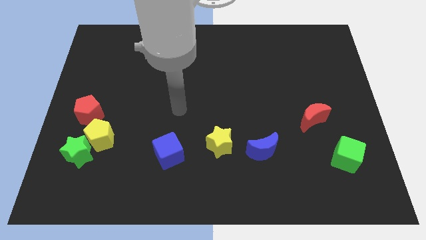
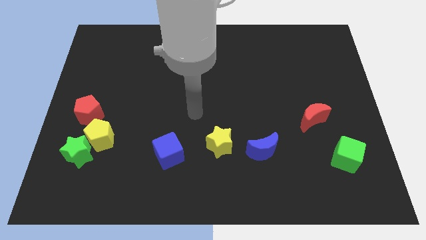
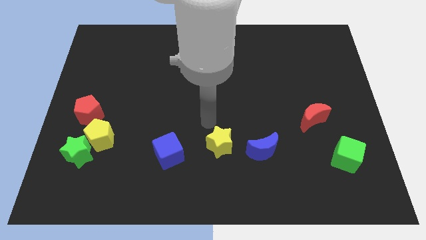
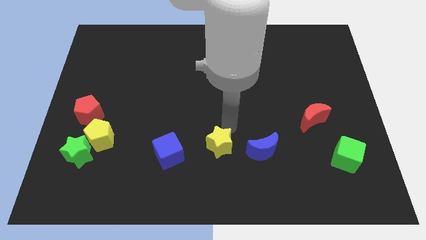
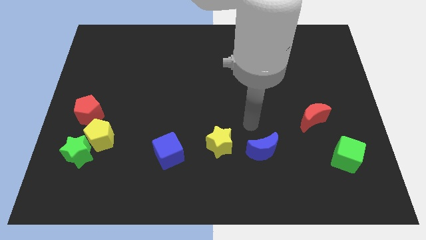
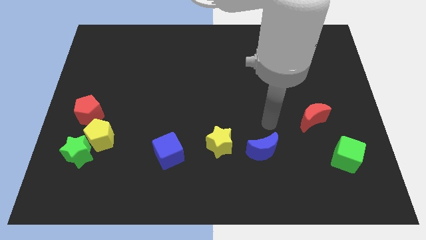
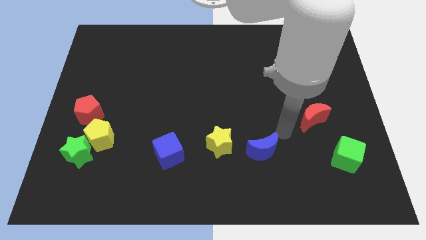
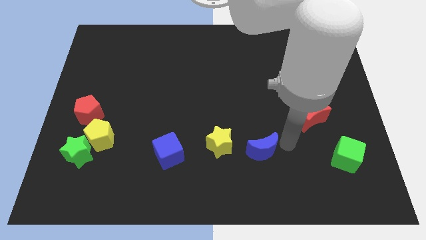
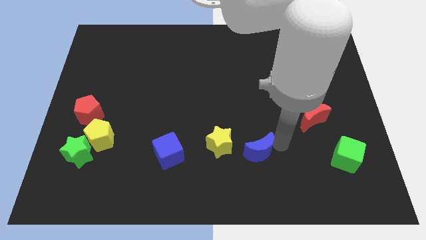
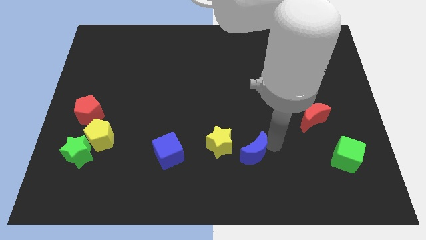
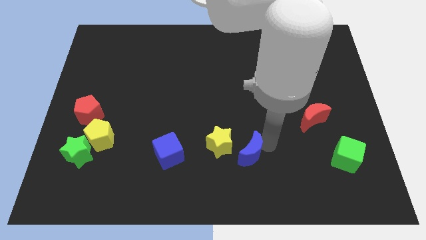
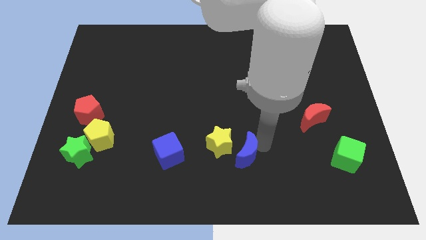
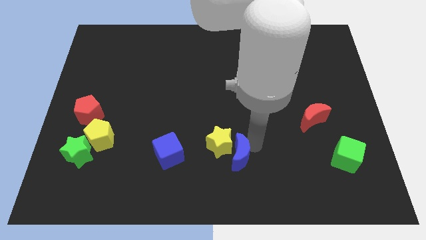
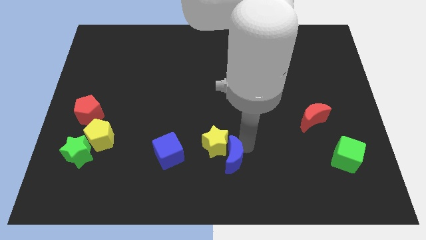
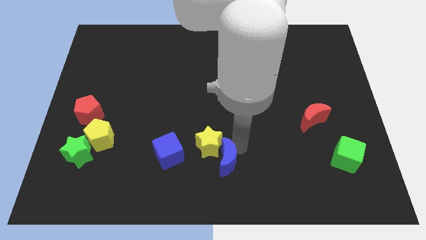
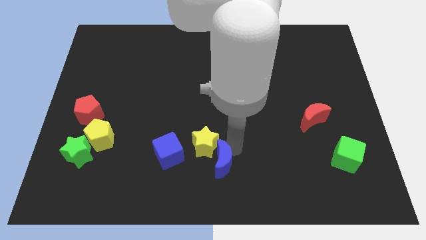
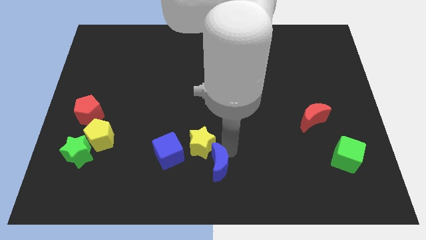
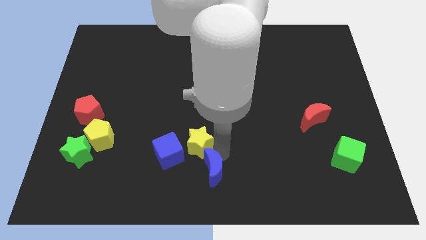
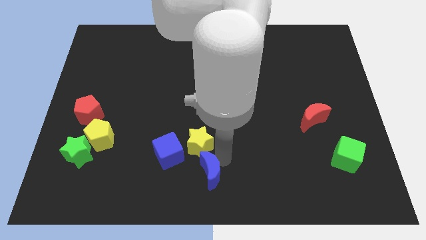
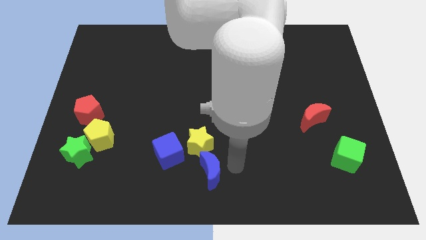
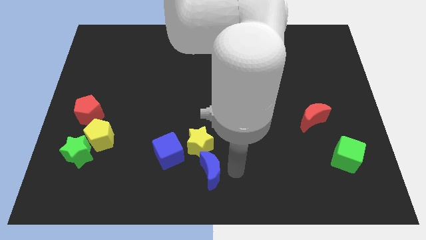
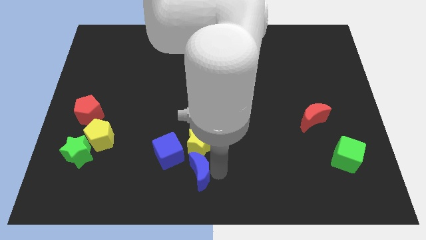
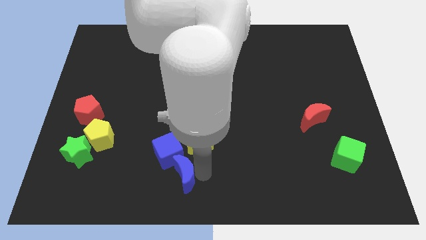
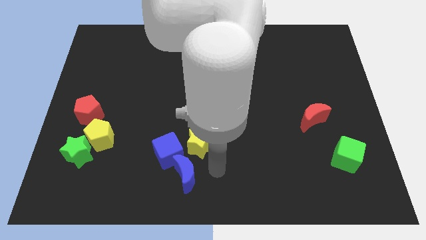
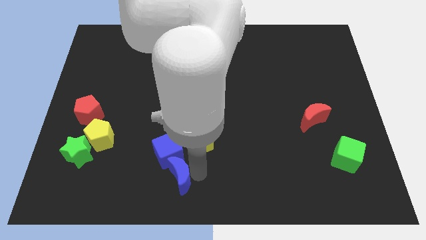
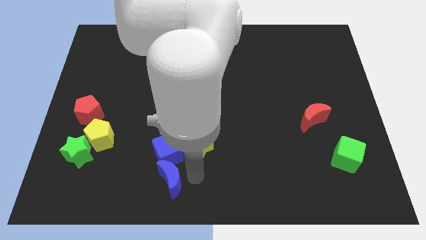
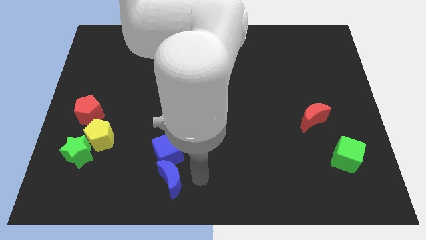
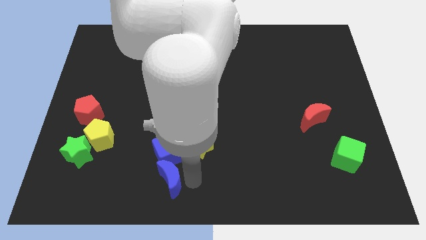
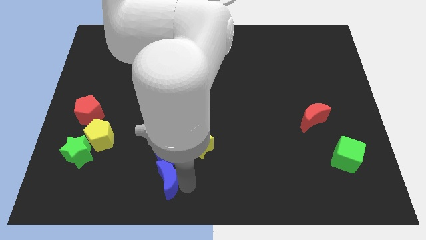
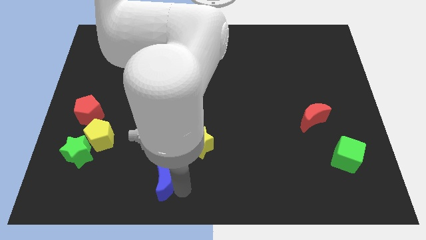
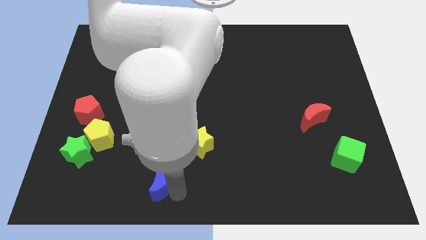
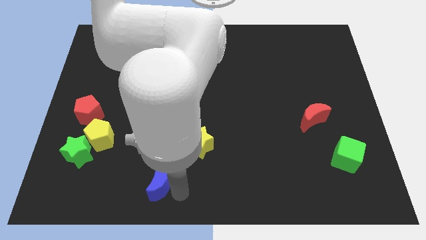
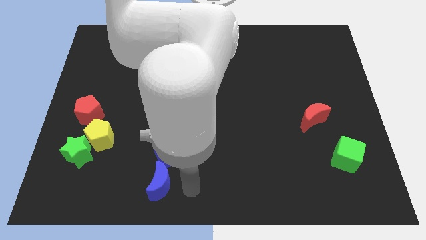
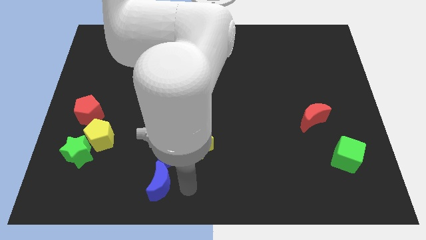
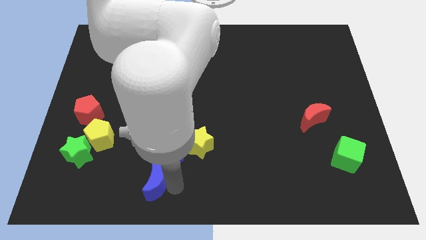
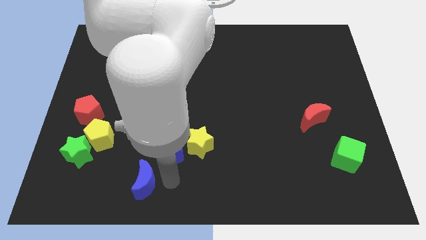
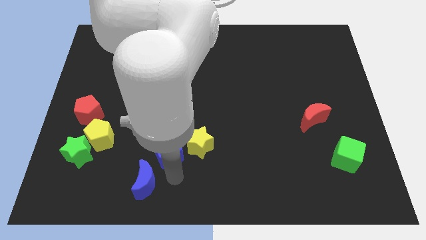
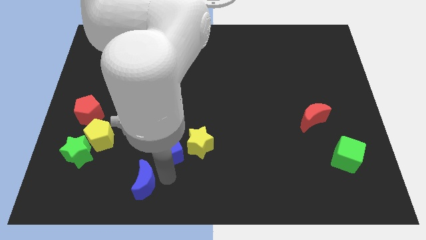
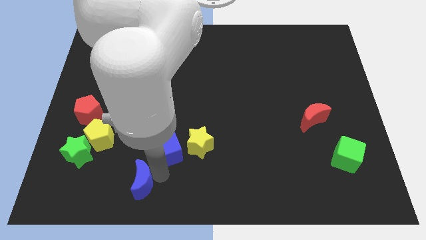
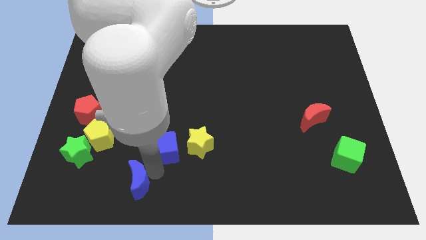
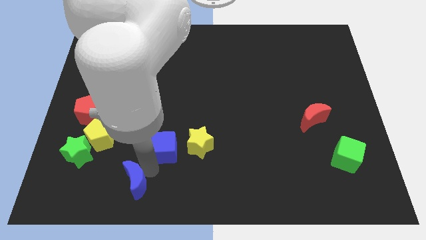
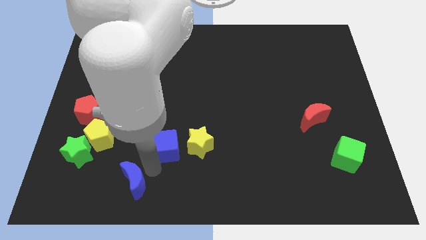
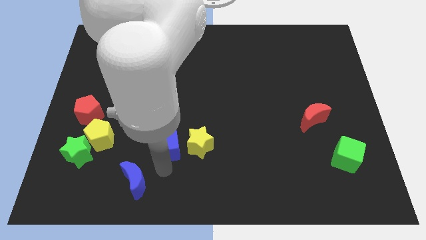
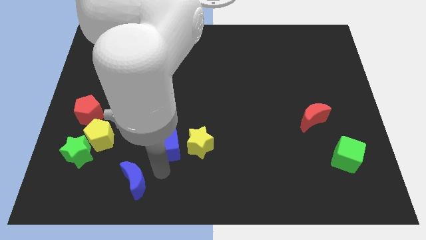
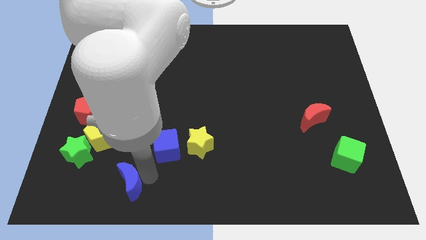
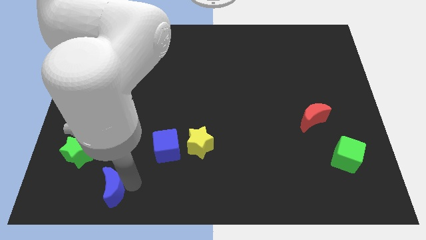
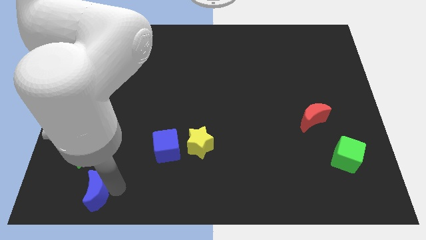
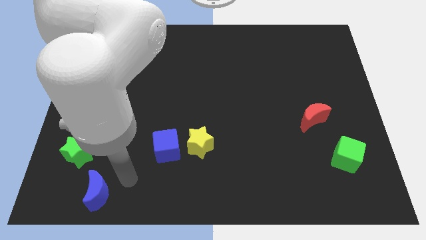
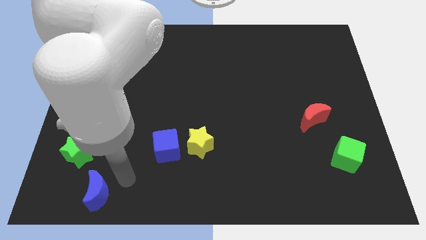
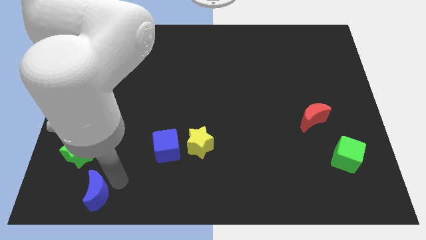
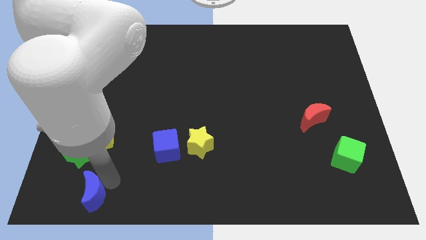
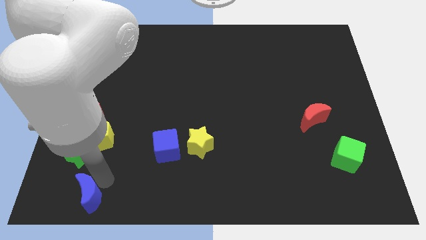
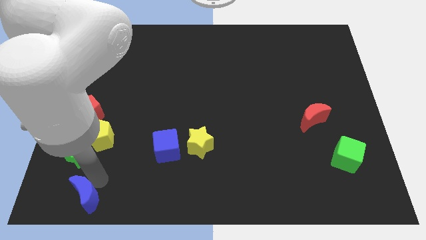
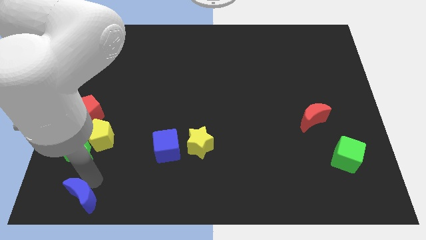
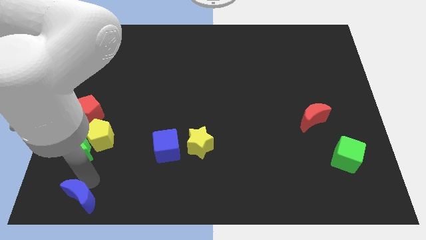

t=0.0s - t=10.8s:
push the blue moon to the bottom left

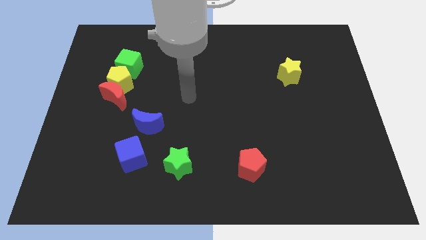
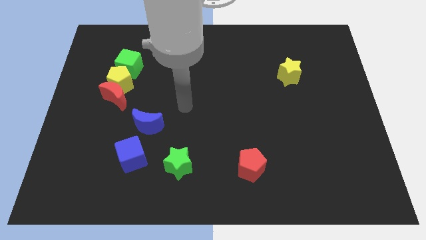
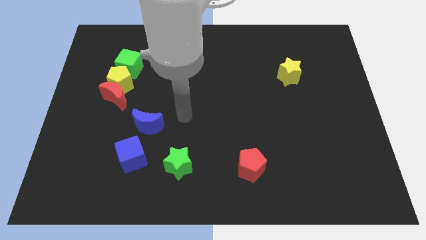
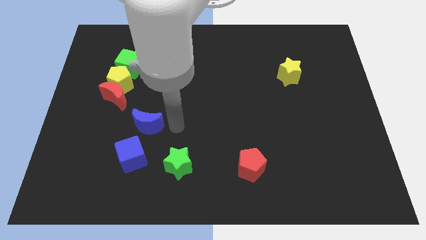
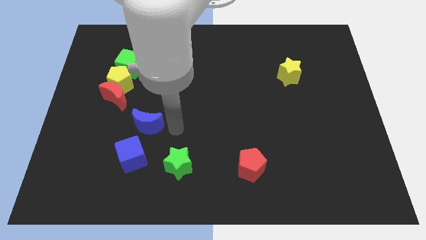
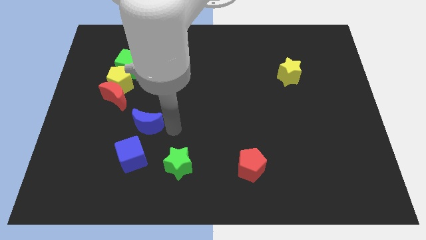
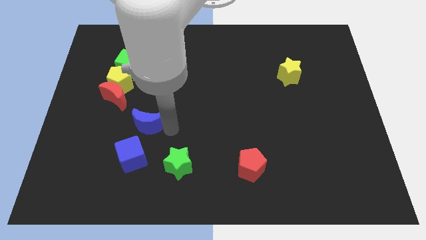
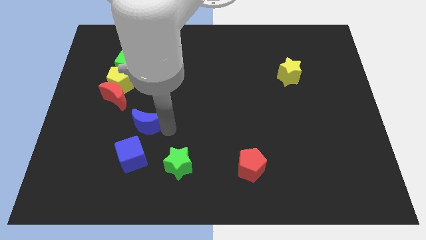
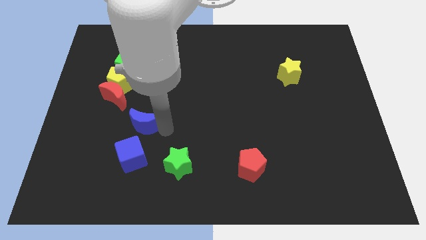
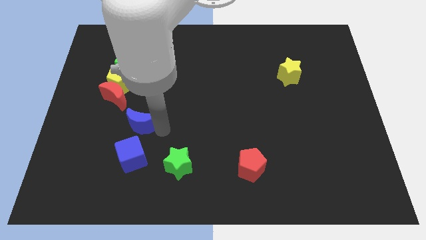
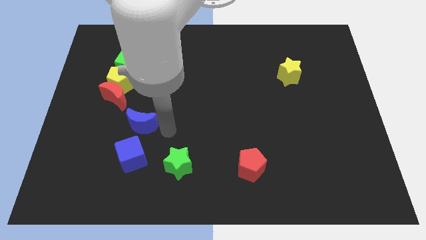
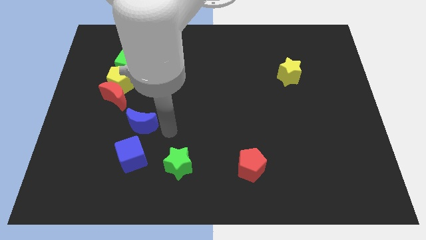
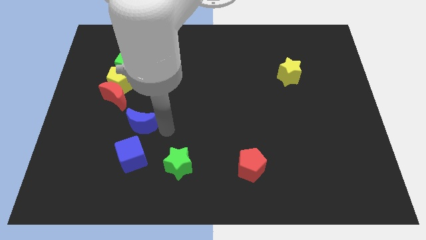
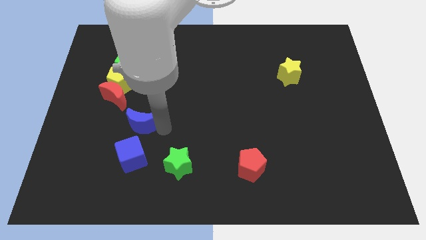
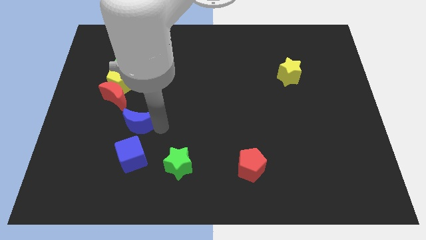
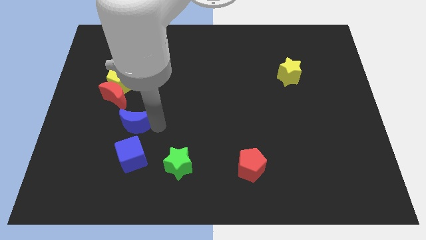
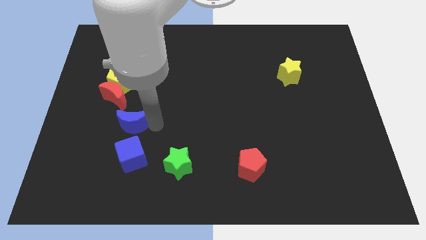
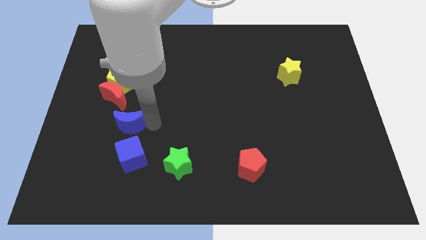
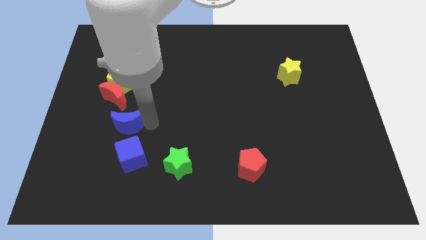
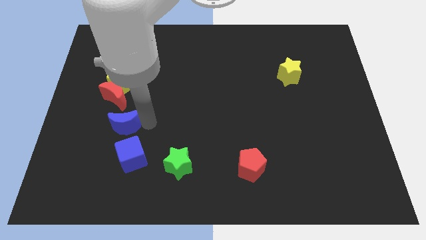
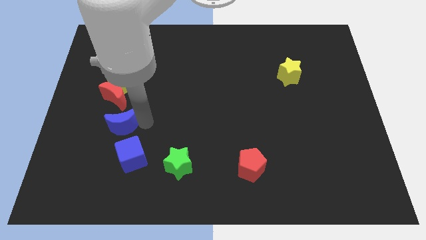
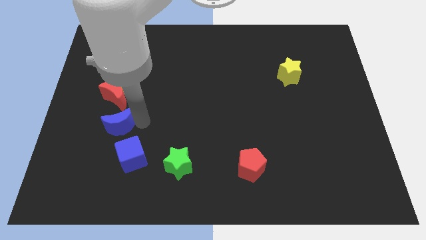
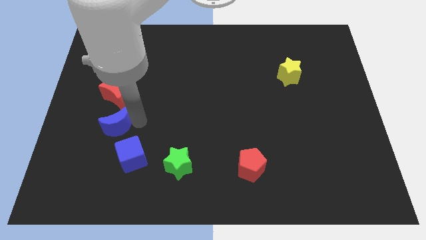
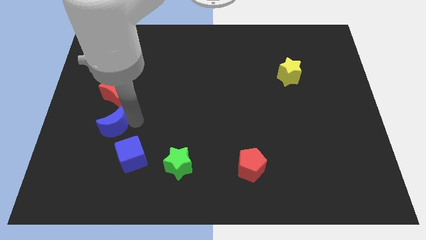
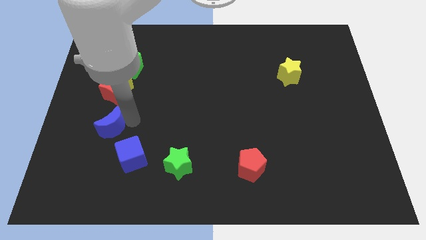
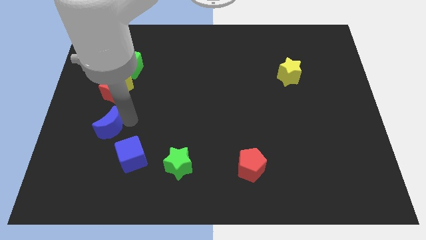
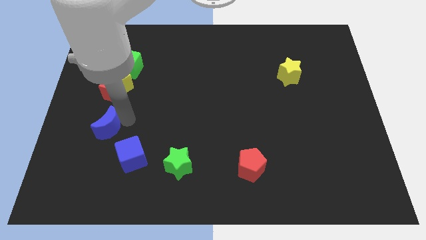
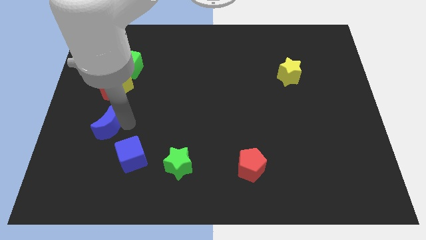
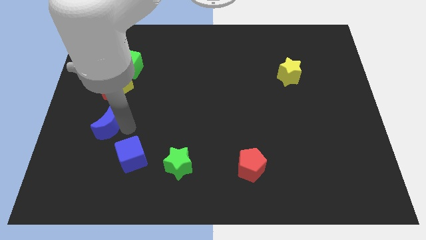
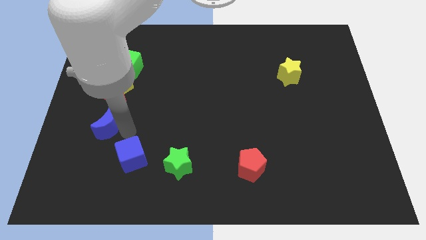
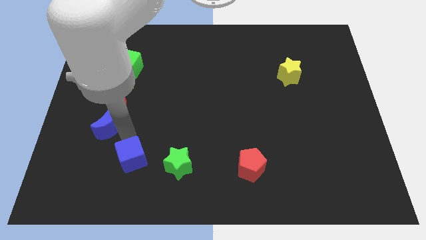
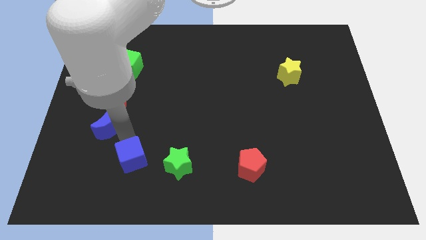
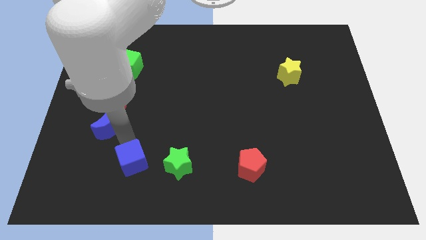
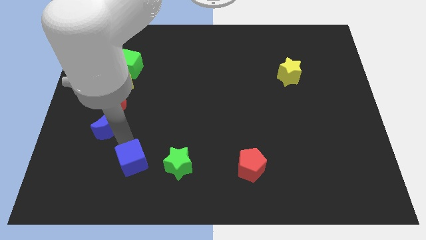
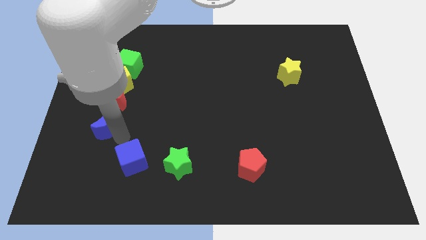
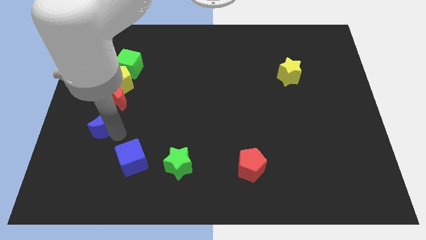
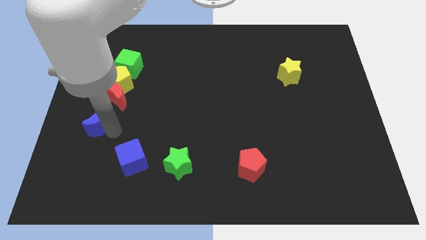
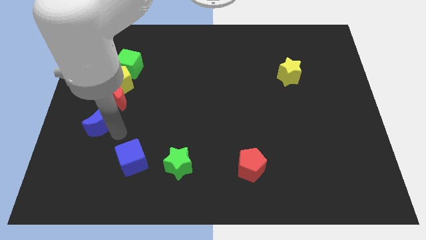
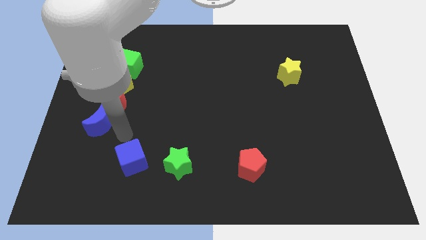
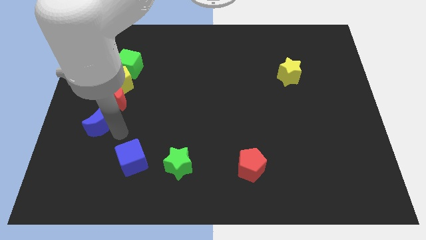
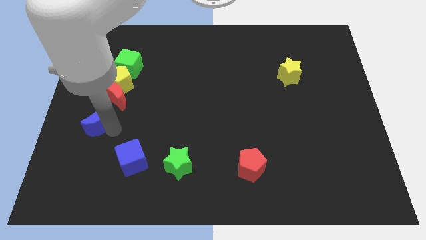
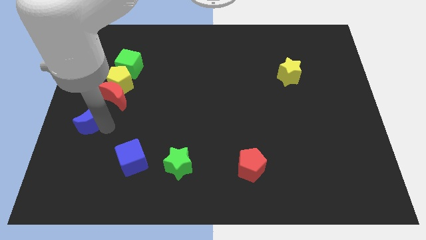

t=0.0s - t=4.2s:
slide the blue moon to the left side
